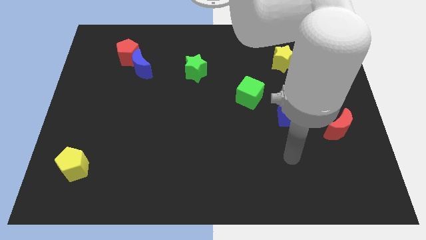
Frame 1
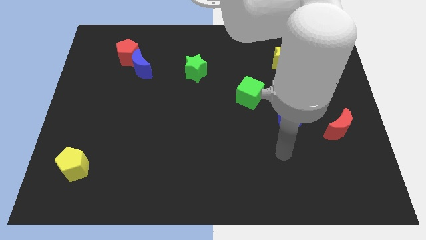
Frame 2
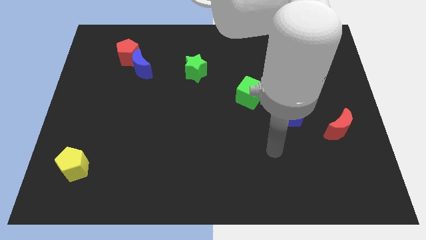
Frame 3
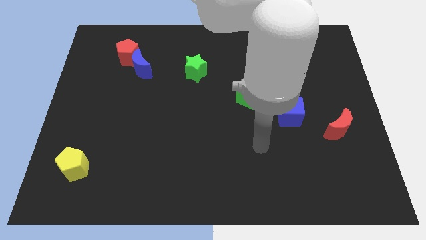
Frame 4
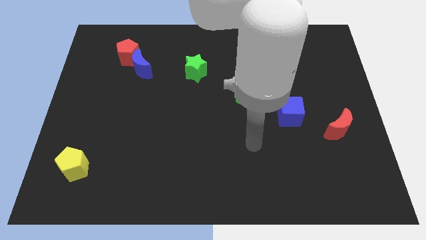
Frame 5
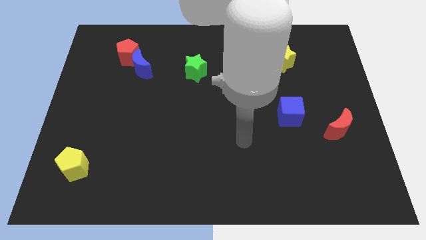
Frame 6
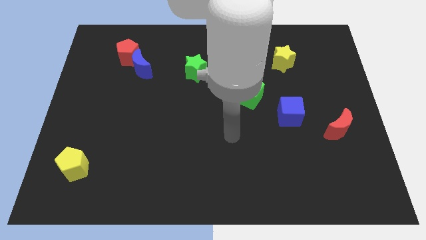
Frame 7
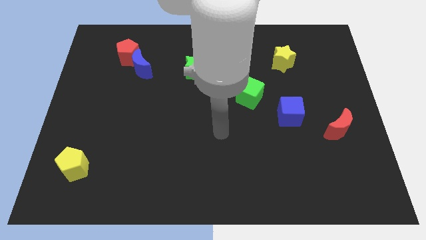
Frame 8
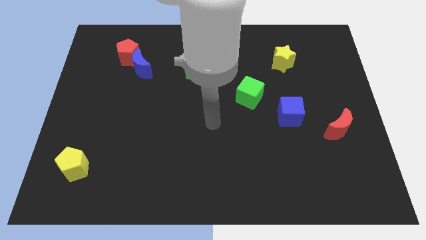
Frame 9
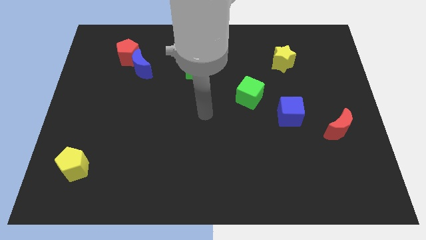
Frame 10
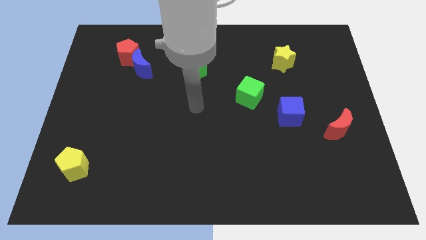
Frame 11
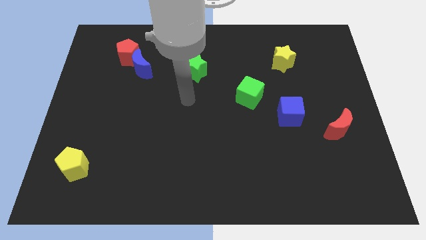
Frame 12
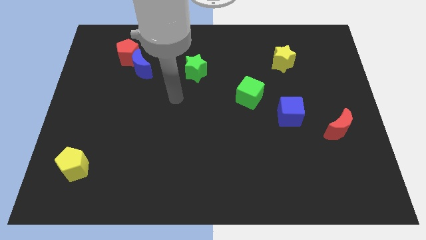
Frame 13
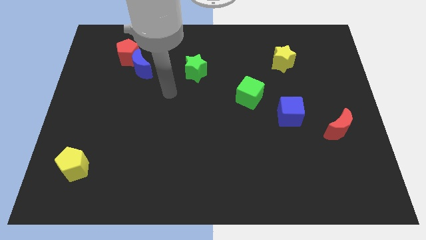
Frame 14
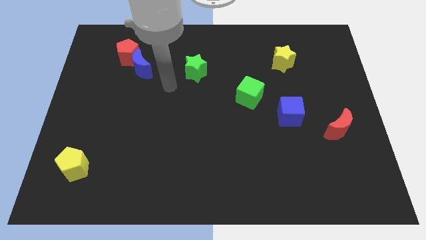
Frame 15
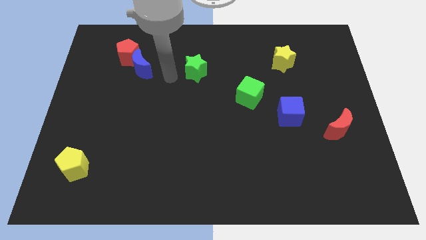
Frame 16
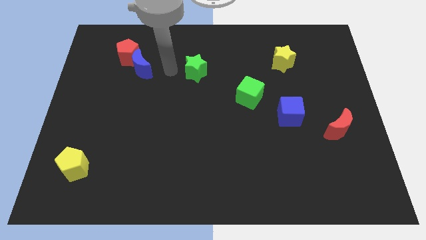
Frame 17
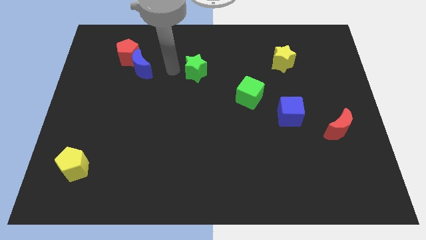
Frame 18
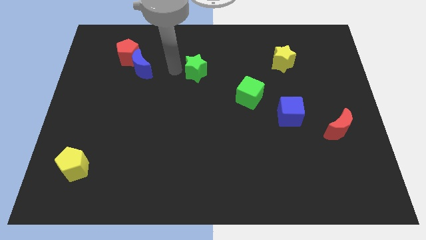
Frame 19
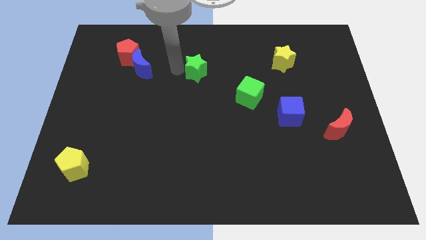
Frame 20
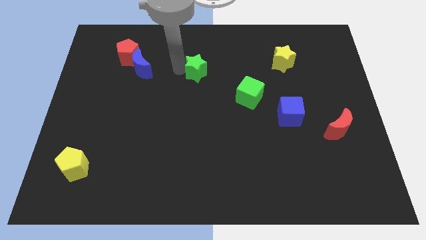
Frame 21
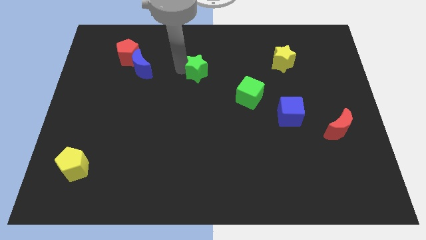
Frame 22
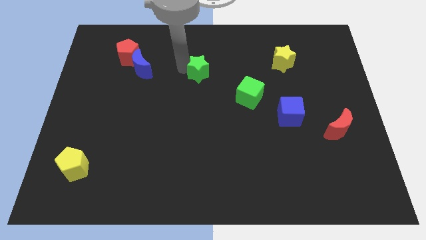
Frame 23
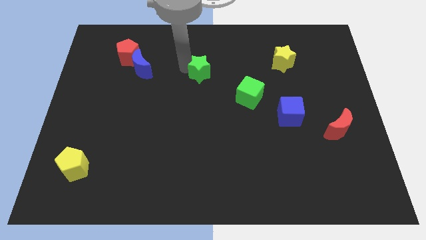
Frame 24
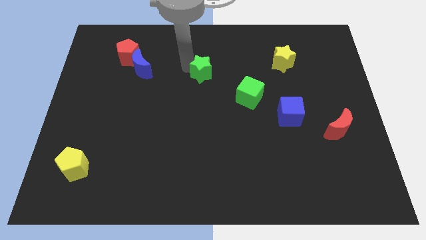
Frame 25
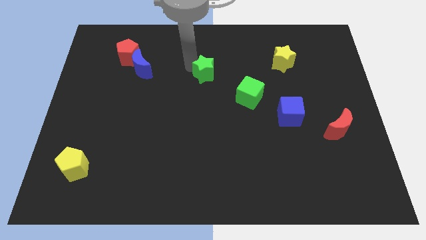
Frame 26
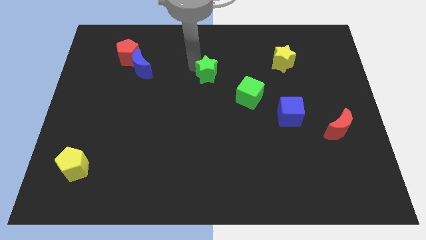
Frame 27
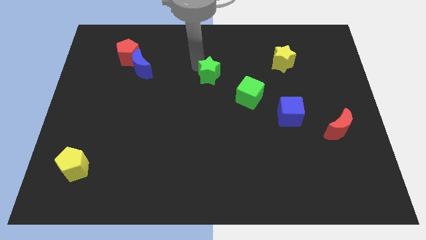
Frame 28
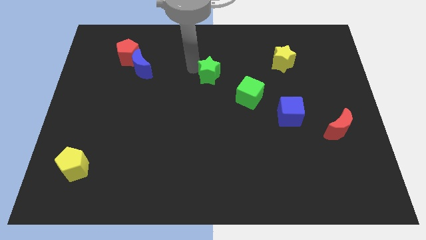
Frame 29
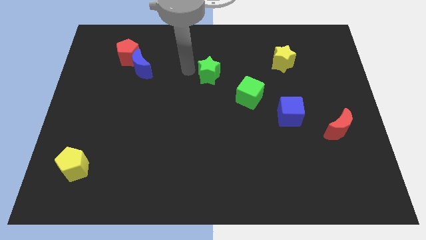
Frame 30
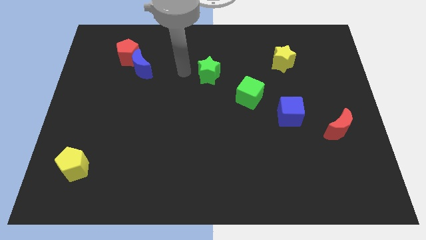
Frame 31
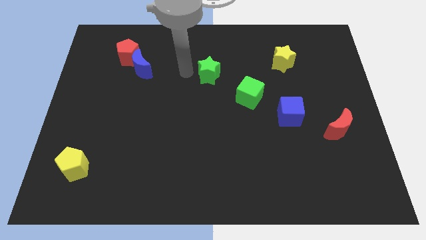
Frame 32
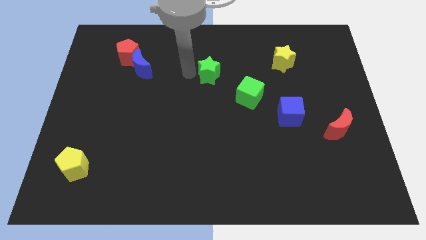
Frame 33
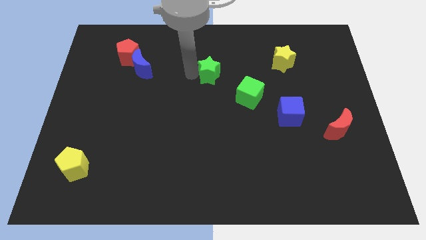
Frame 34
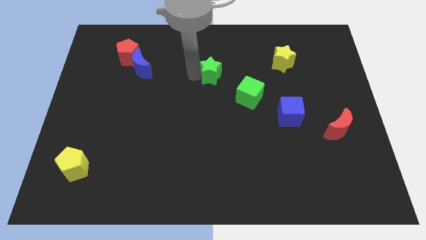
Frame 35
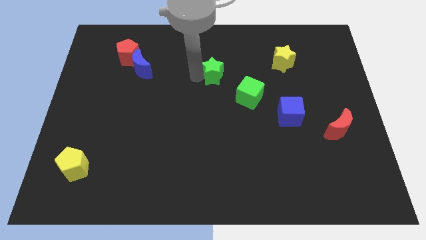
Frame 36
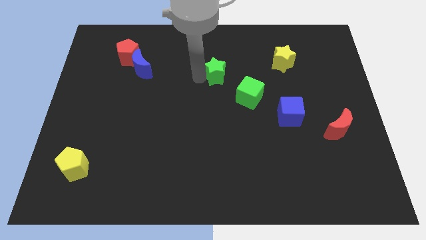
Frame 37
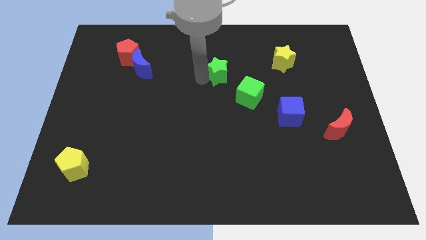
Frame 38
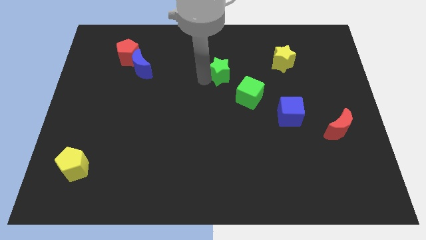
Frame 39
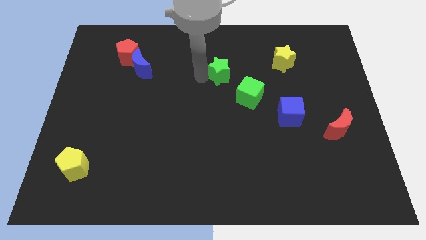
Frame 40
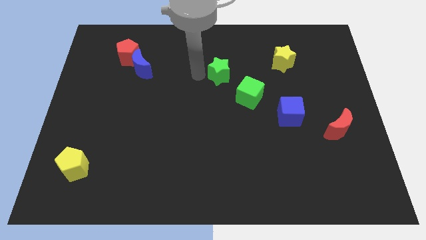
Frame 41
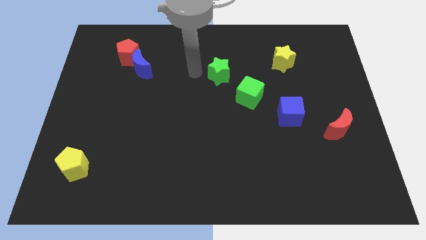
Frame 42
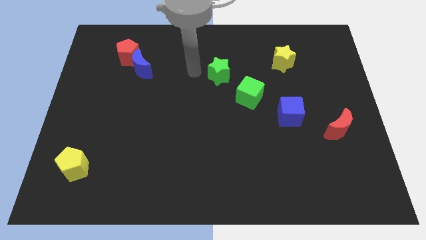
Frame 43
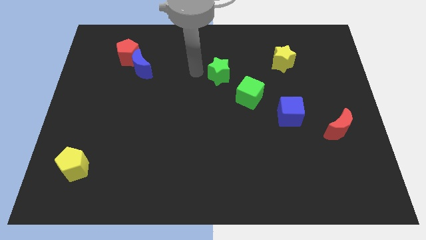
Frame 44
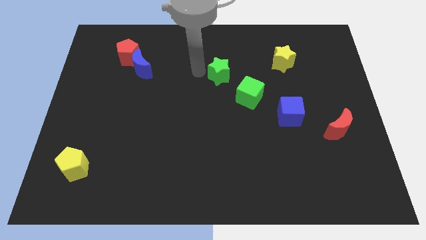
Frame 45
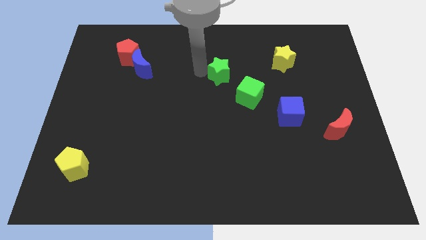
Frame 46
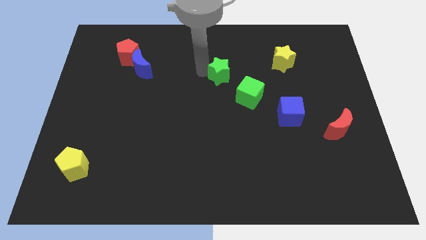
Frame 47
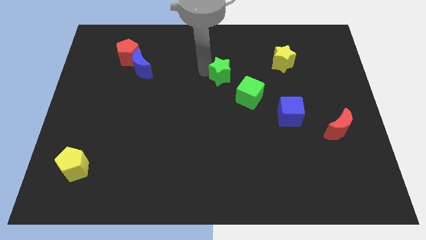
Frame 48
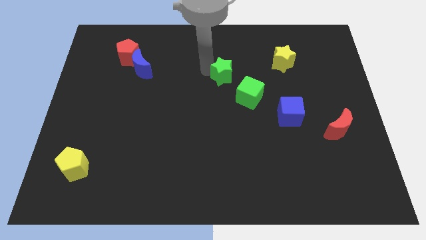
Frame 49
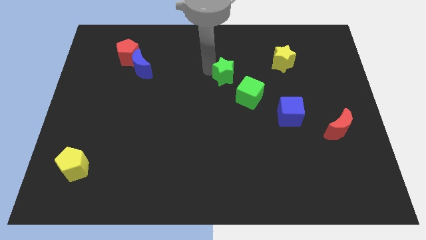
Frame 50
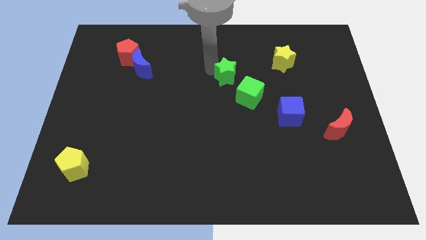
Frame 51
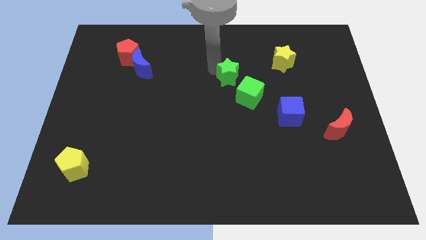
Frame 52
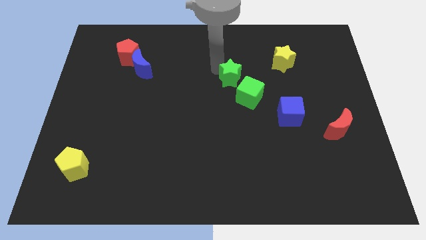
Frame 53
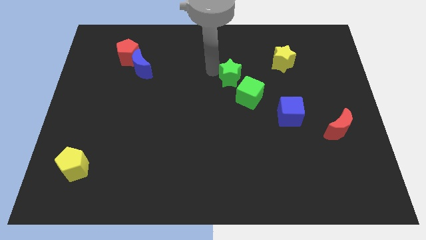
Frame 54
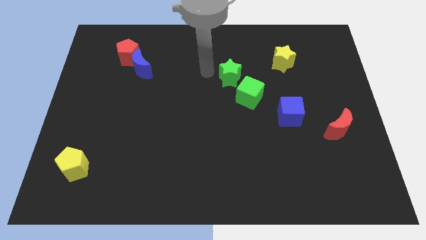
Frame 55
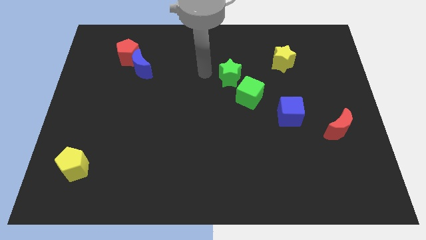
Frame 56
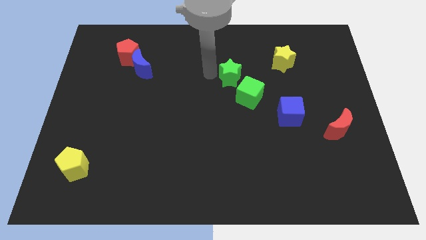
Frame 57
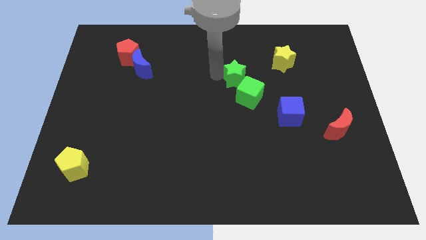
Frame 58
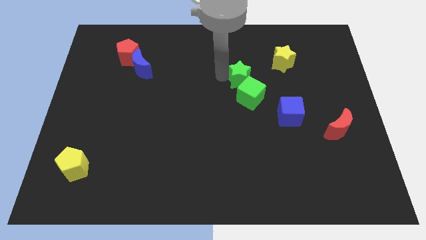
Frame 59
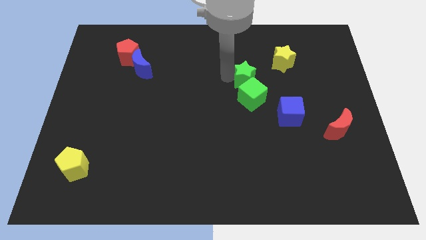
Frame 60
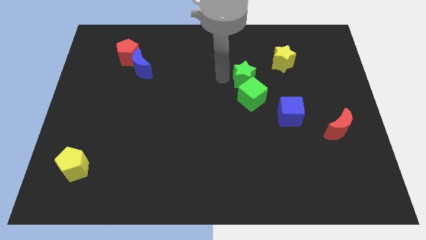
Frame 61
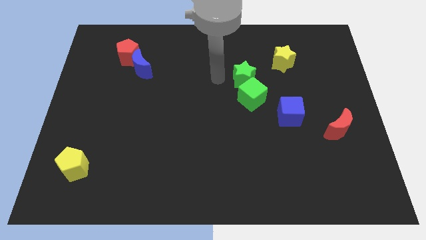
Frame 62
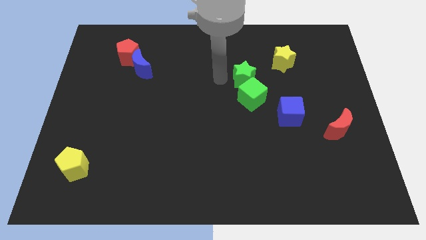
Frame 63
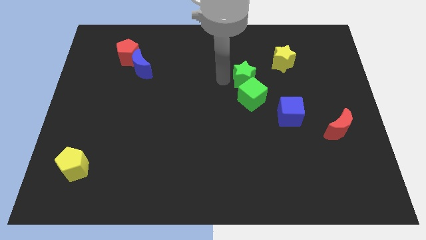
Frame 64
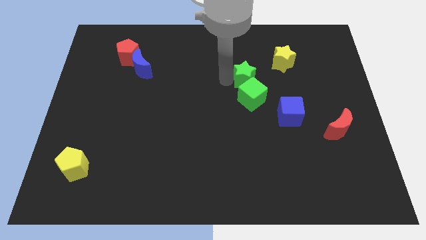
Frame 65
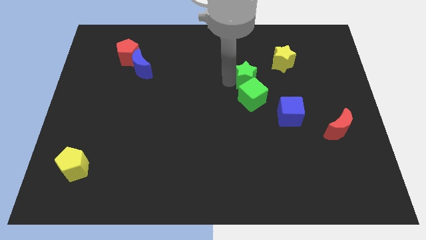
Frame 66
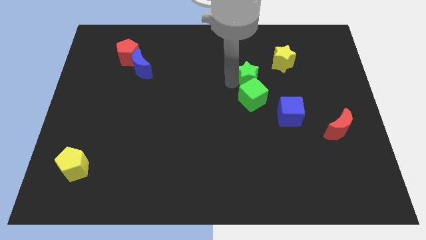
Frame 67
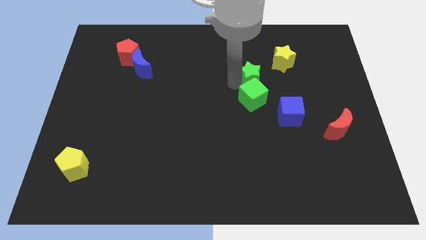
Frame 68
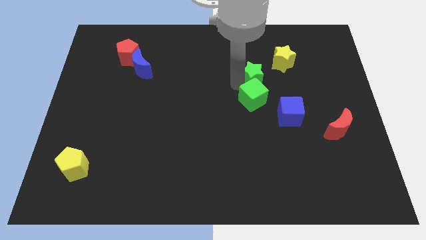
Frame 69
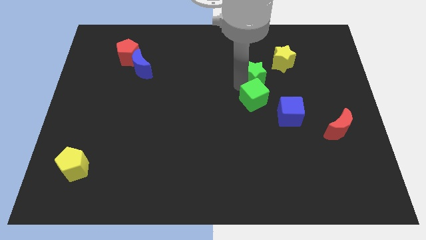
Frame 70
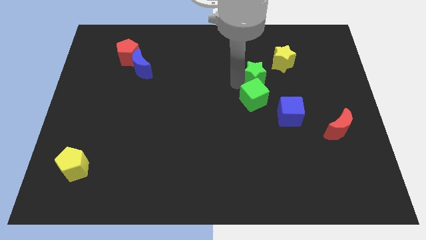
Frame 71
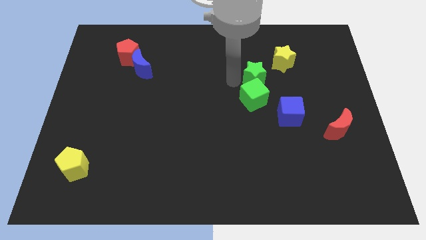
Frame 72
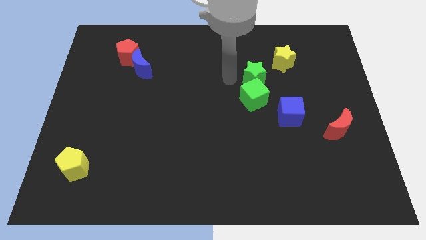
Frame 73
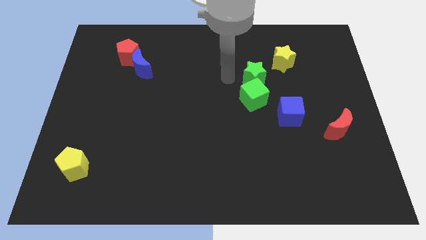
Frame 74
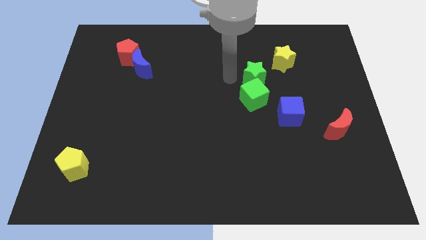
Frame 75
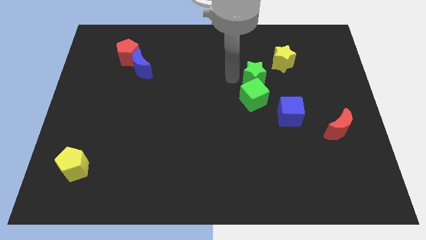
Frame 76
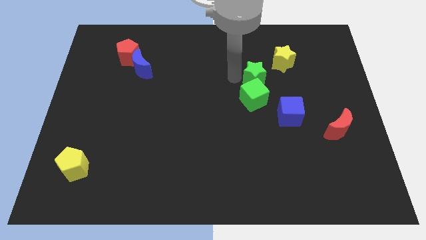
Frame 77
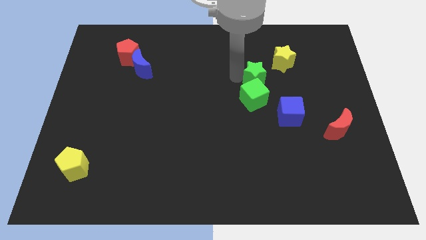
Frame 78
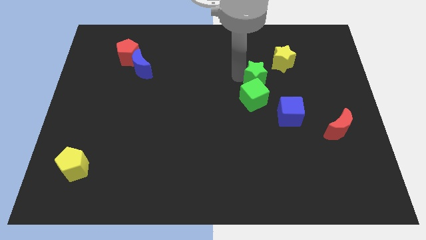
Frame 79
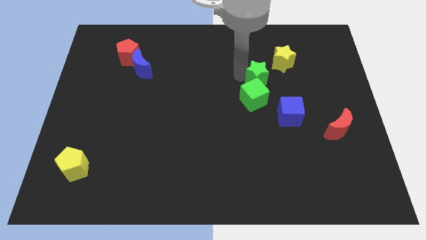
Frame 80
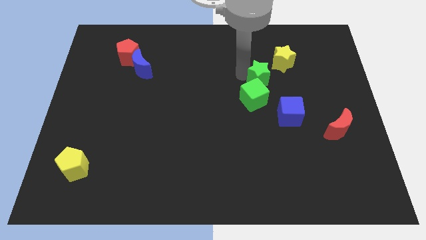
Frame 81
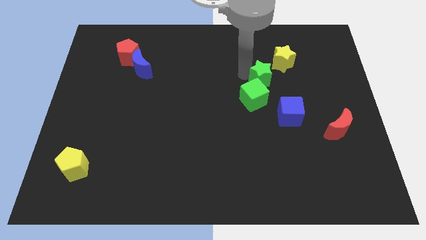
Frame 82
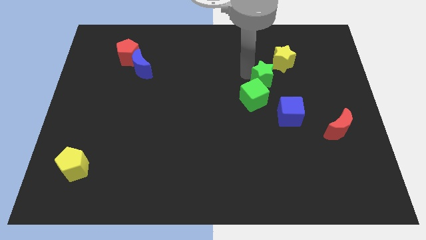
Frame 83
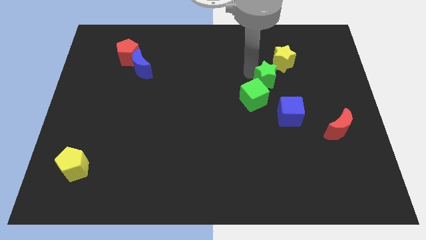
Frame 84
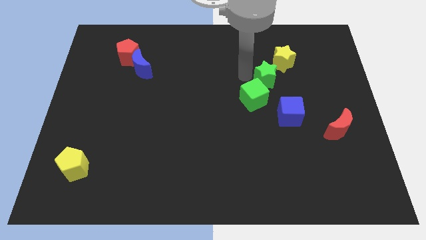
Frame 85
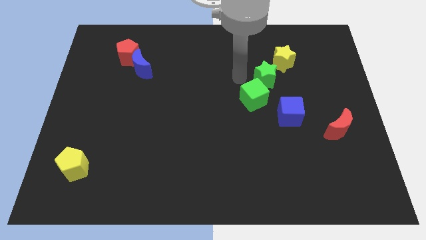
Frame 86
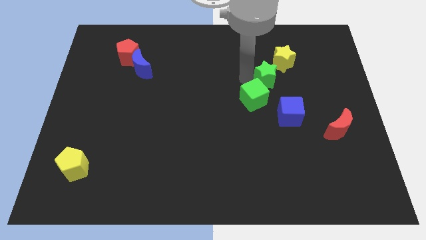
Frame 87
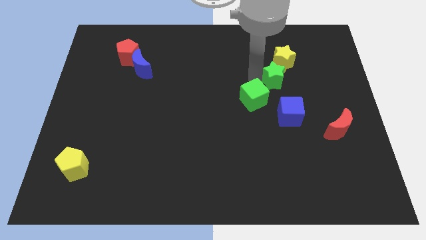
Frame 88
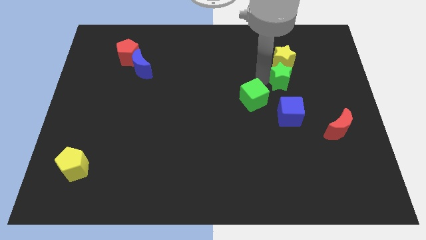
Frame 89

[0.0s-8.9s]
push the green star right
